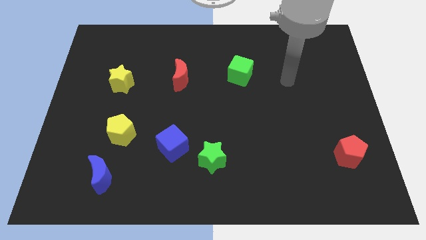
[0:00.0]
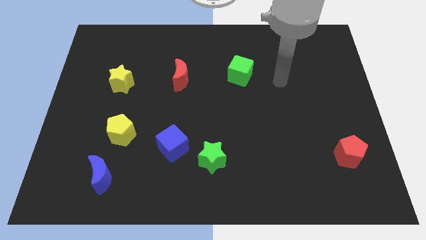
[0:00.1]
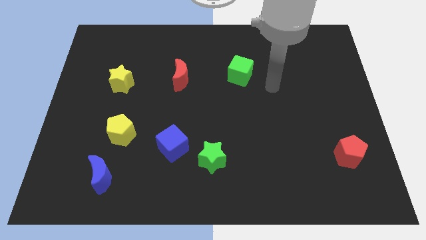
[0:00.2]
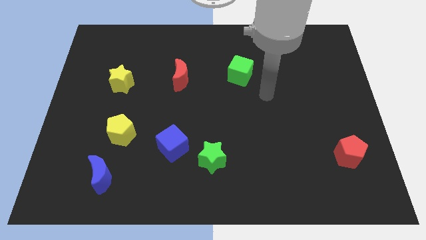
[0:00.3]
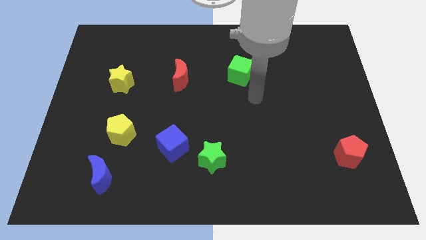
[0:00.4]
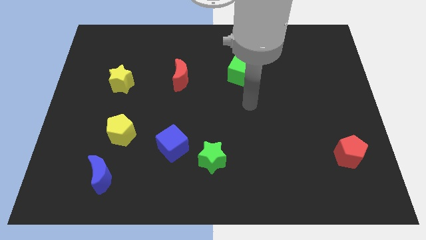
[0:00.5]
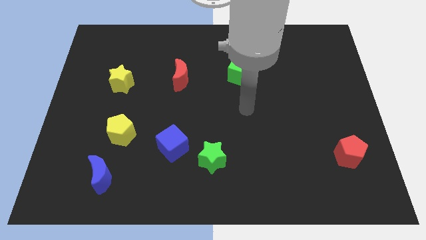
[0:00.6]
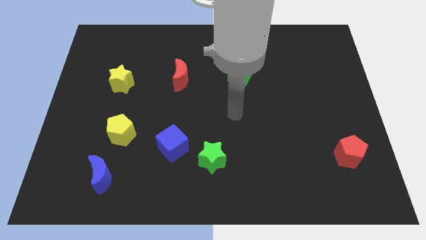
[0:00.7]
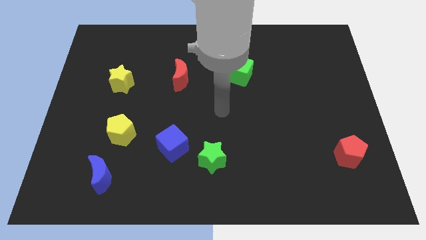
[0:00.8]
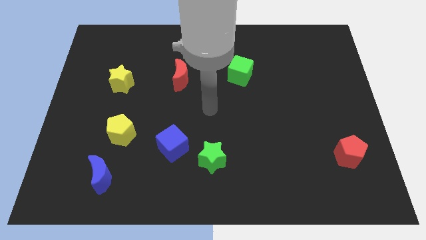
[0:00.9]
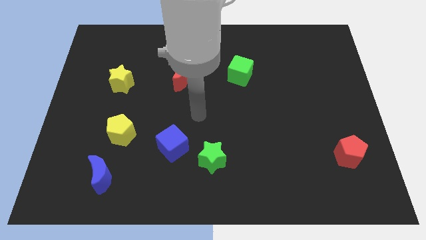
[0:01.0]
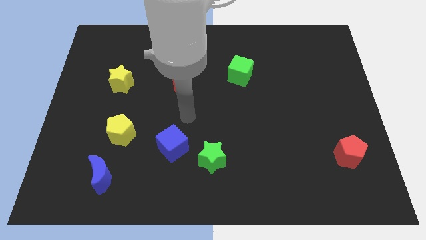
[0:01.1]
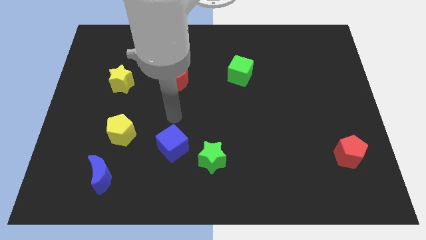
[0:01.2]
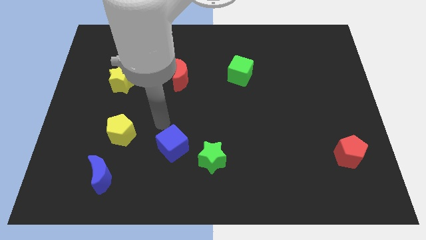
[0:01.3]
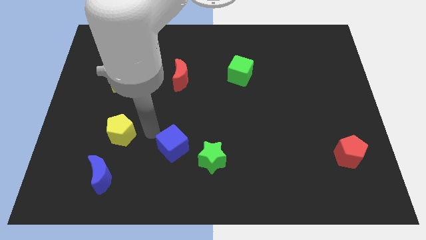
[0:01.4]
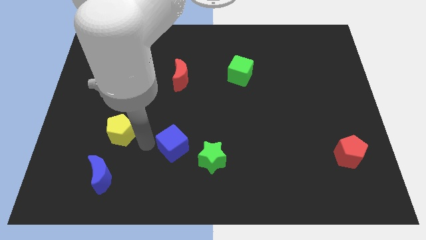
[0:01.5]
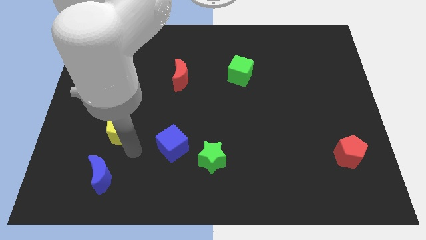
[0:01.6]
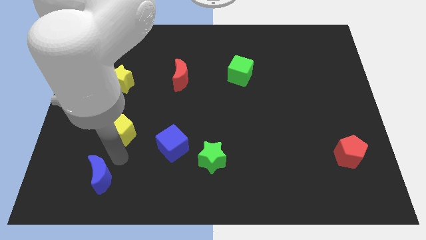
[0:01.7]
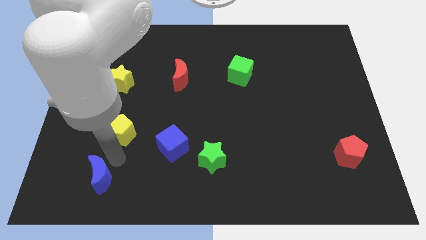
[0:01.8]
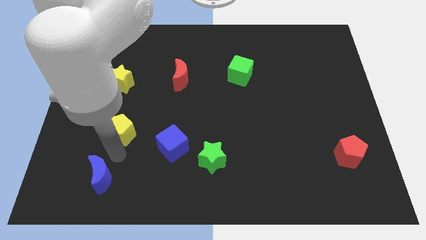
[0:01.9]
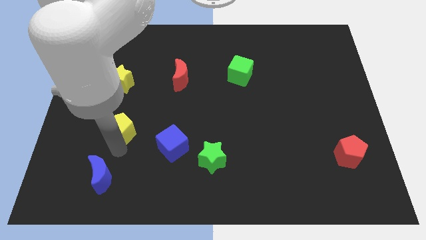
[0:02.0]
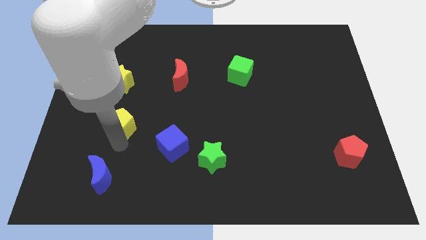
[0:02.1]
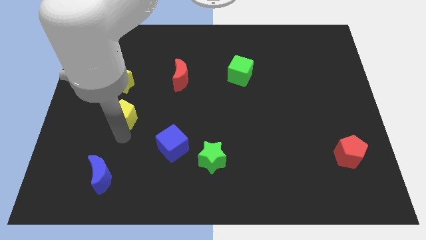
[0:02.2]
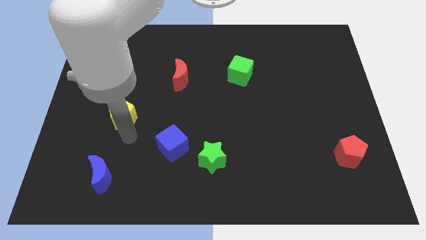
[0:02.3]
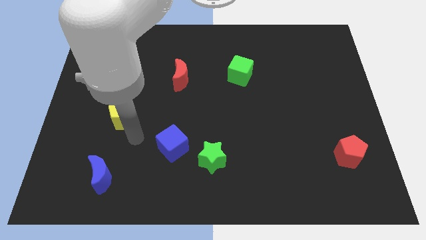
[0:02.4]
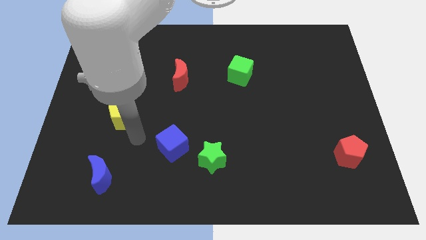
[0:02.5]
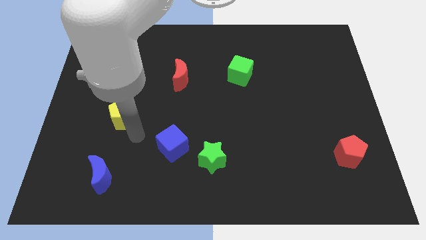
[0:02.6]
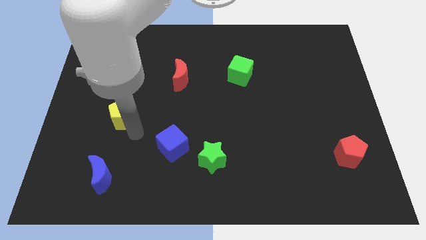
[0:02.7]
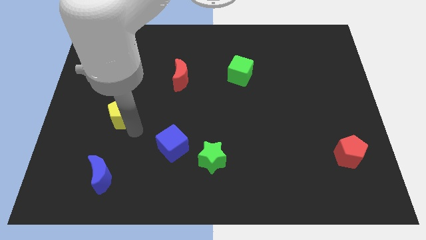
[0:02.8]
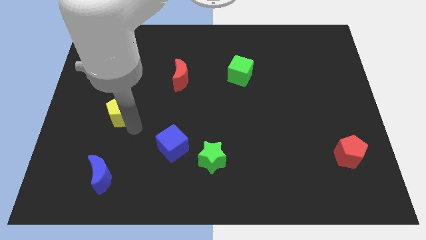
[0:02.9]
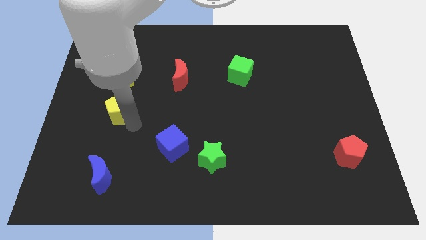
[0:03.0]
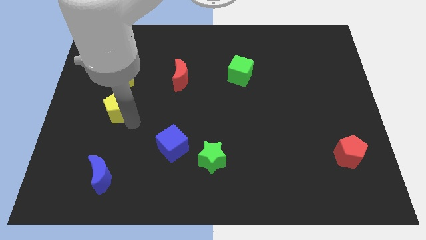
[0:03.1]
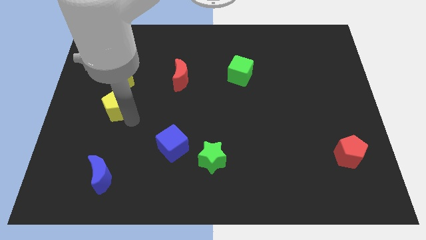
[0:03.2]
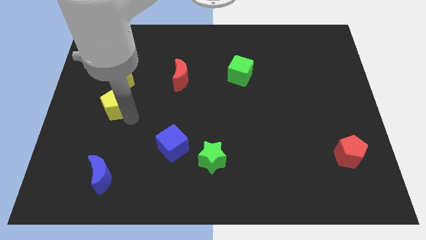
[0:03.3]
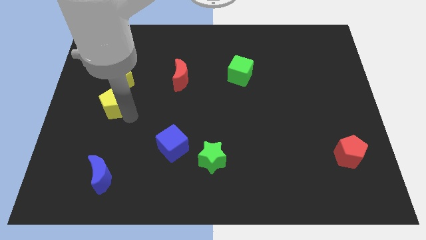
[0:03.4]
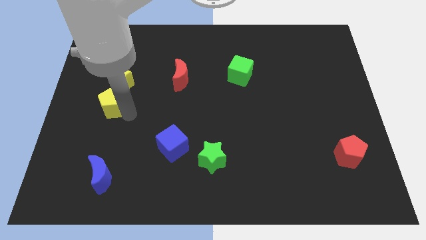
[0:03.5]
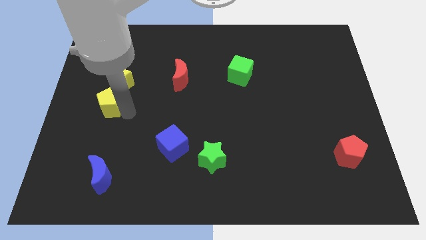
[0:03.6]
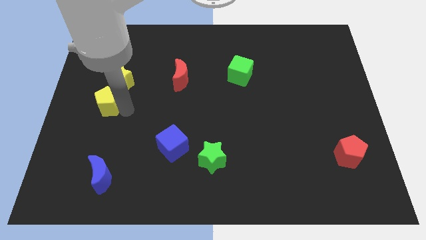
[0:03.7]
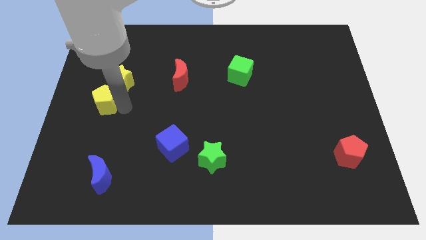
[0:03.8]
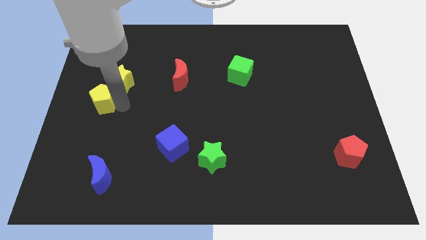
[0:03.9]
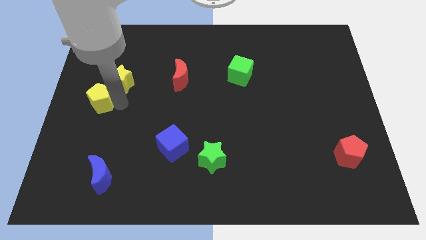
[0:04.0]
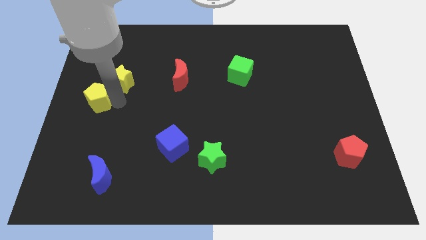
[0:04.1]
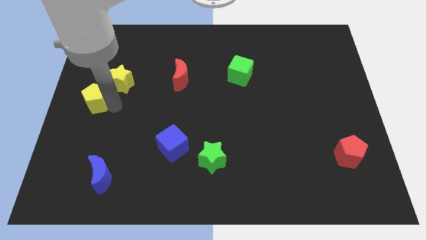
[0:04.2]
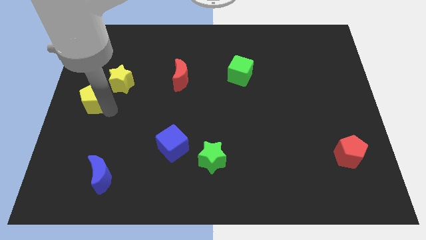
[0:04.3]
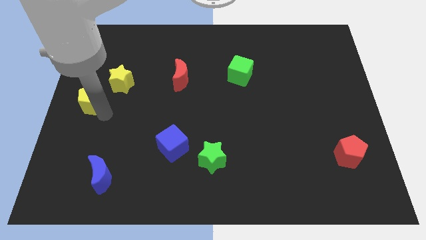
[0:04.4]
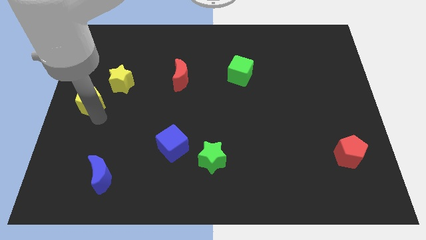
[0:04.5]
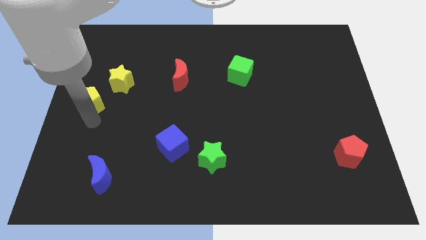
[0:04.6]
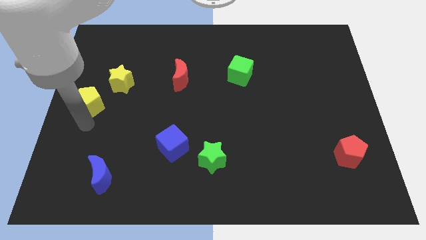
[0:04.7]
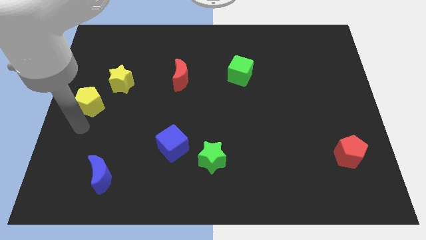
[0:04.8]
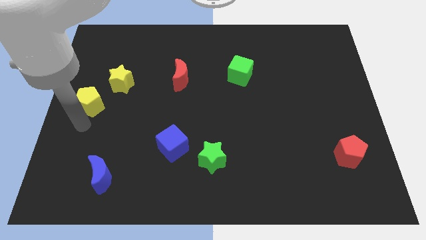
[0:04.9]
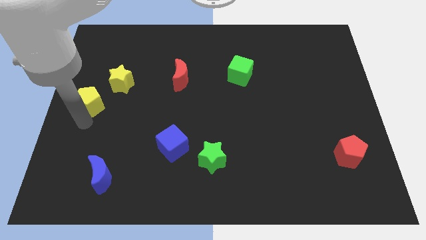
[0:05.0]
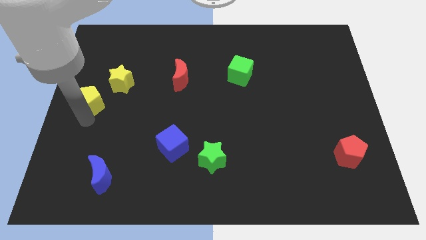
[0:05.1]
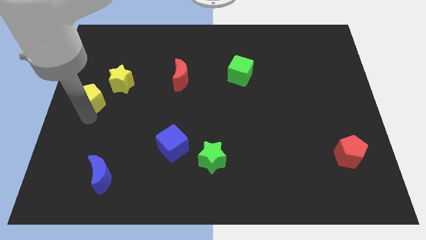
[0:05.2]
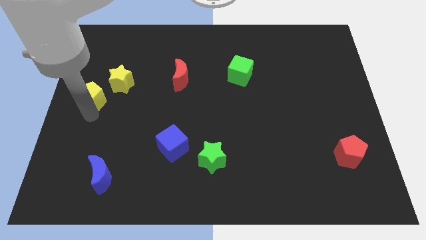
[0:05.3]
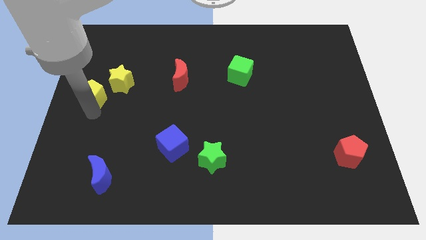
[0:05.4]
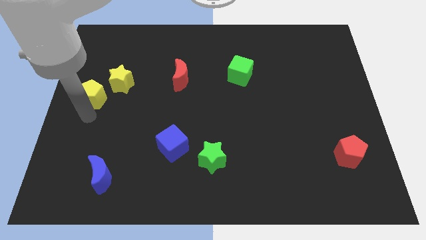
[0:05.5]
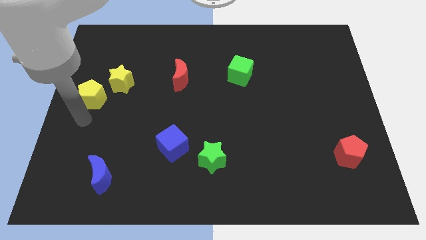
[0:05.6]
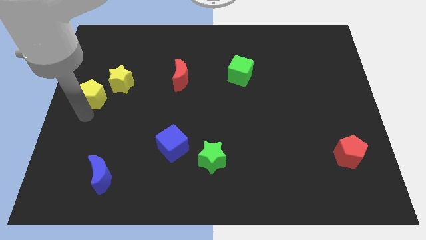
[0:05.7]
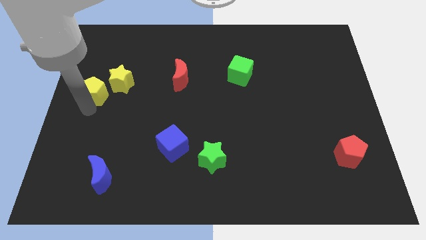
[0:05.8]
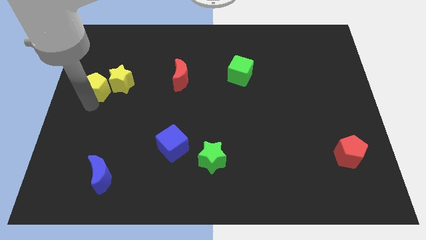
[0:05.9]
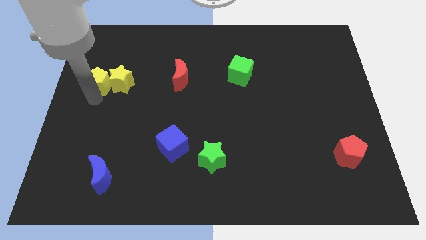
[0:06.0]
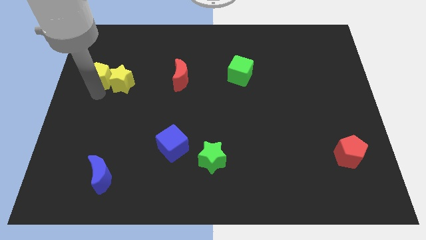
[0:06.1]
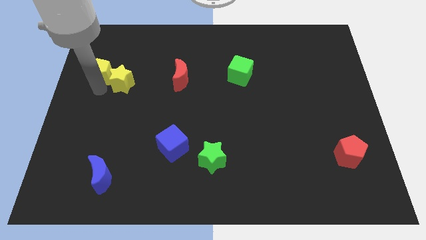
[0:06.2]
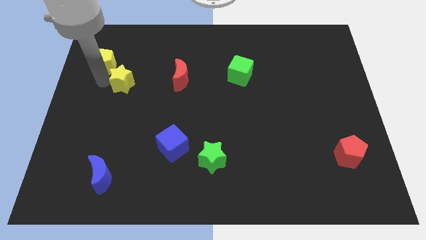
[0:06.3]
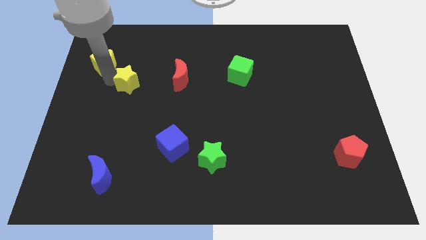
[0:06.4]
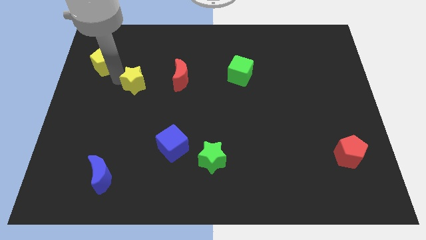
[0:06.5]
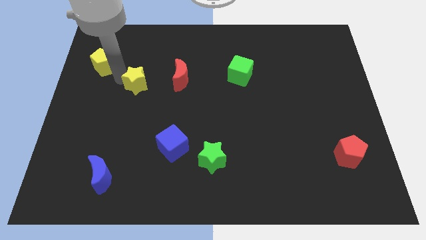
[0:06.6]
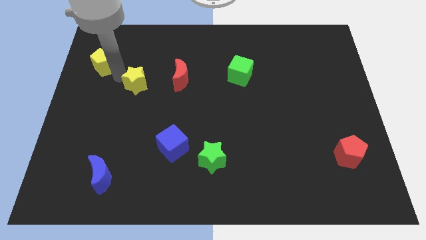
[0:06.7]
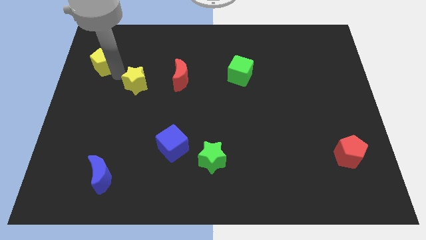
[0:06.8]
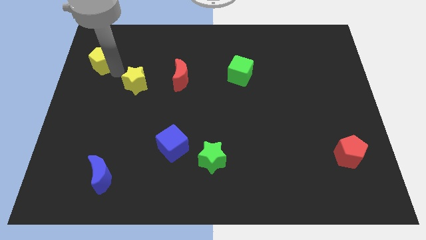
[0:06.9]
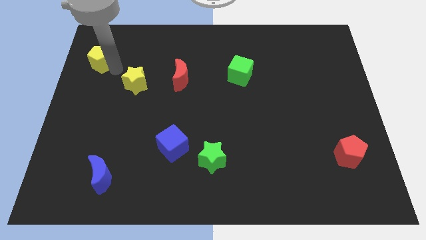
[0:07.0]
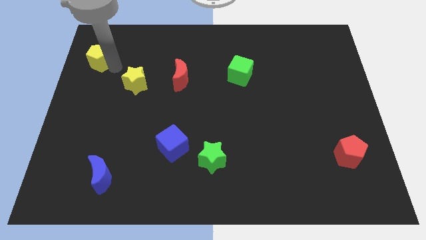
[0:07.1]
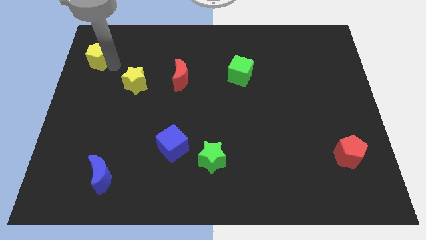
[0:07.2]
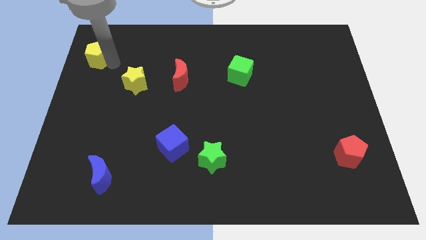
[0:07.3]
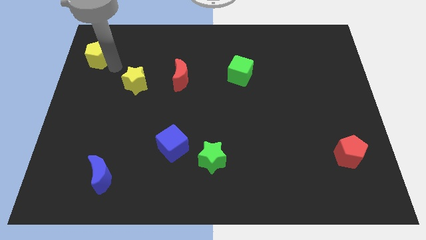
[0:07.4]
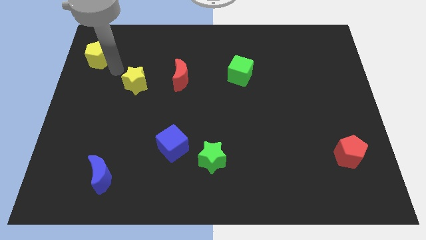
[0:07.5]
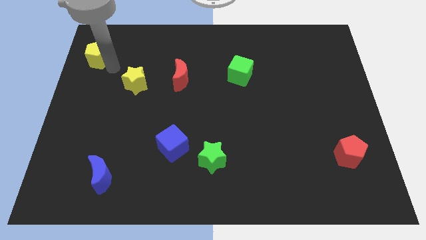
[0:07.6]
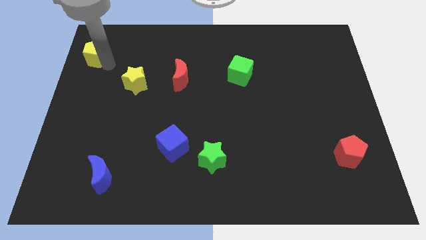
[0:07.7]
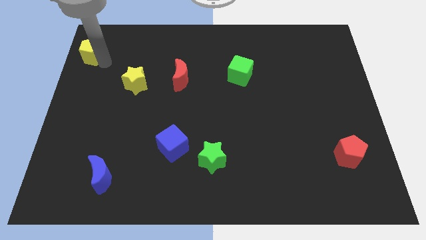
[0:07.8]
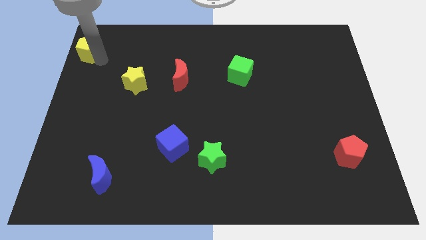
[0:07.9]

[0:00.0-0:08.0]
push the yellow pentagon to the upper left corner
